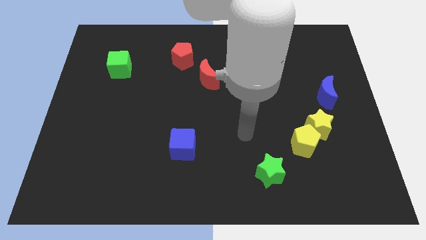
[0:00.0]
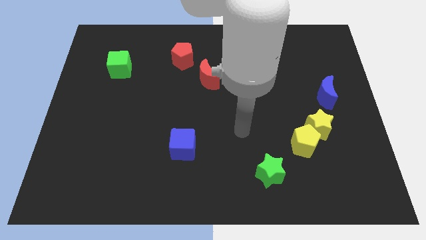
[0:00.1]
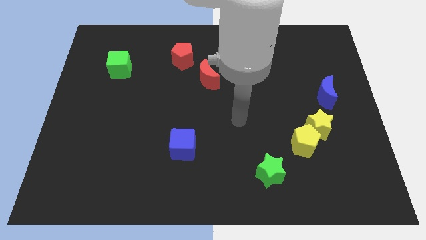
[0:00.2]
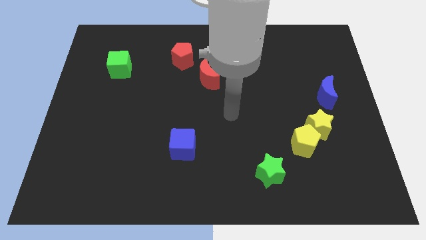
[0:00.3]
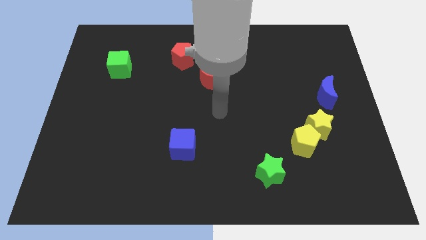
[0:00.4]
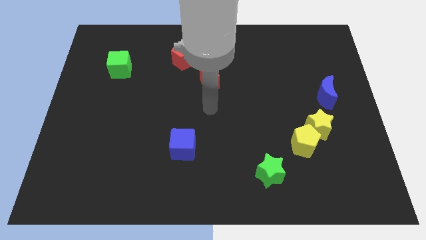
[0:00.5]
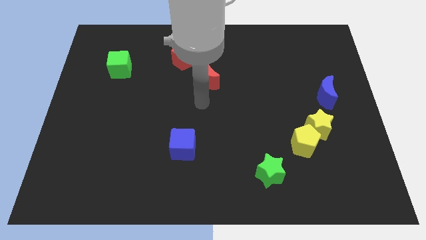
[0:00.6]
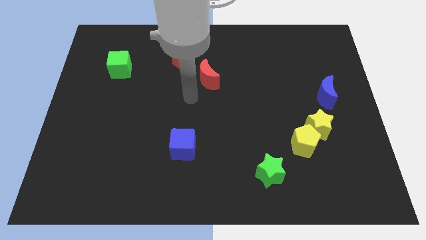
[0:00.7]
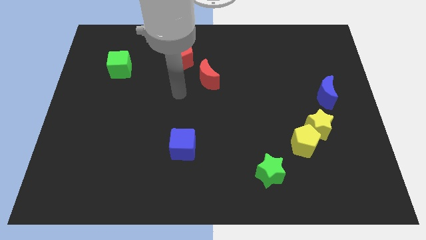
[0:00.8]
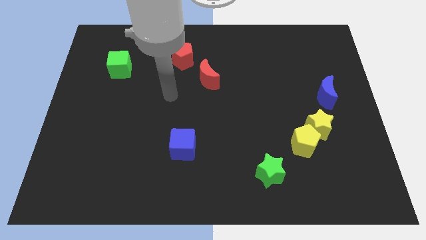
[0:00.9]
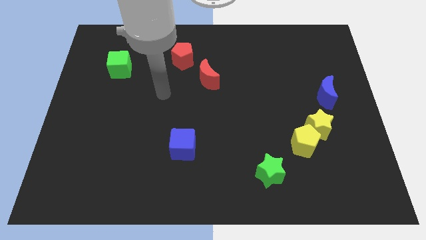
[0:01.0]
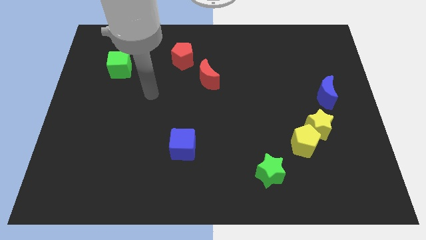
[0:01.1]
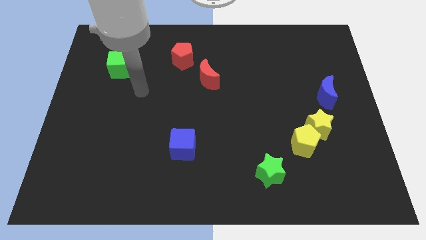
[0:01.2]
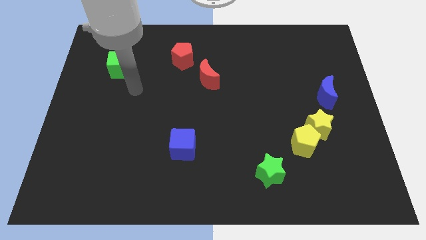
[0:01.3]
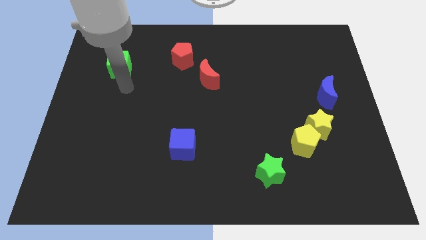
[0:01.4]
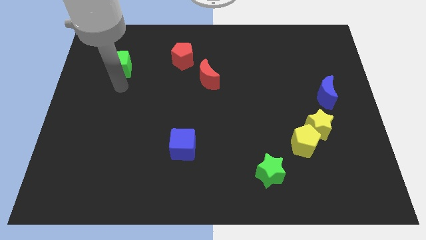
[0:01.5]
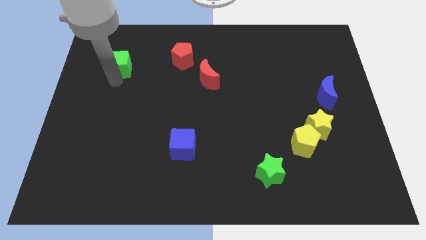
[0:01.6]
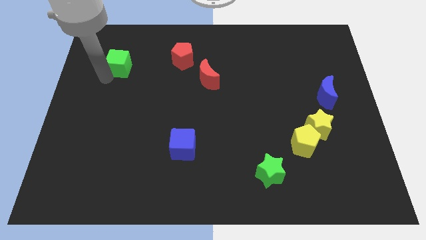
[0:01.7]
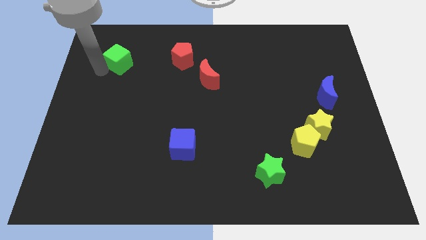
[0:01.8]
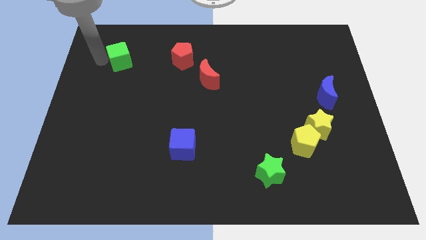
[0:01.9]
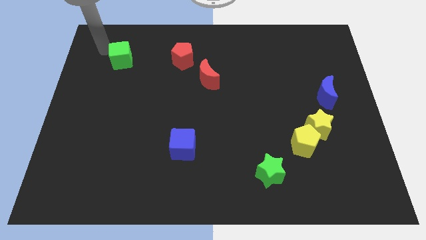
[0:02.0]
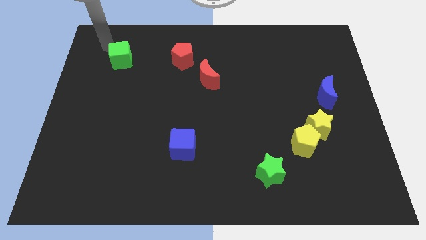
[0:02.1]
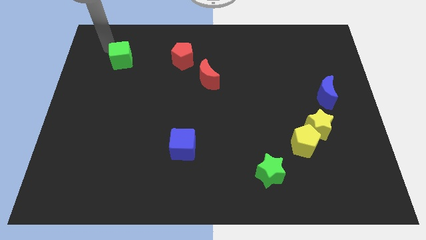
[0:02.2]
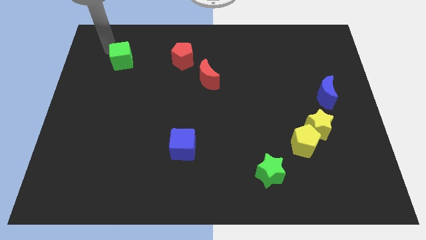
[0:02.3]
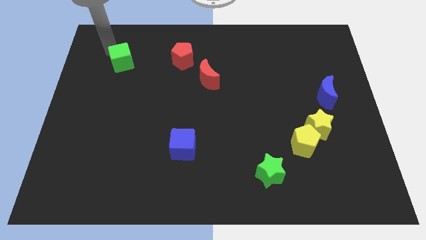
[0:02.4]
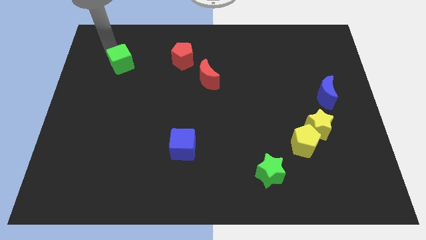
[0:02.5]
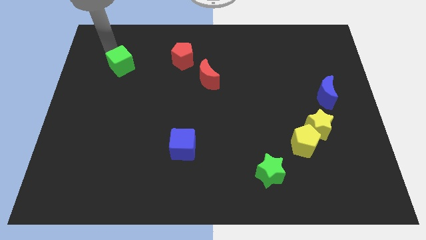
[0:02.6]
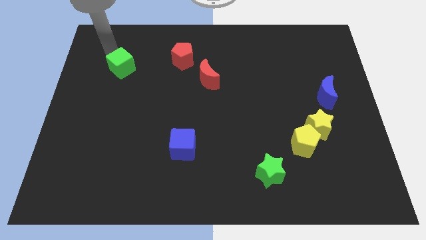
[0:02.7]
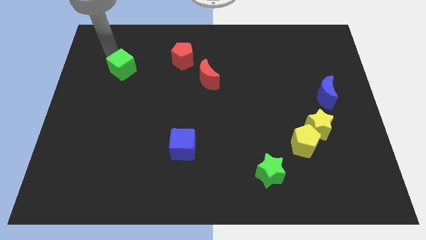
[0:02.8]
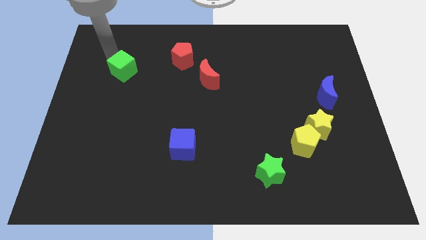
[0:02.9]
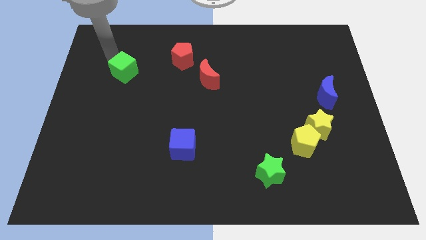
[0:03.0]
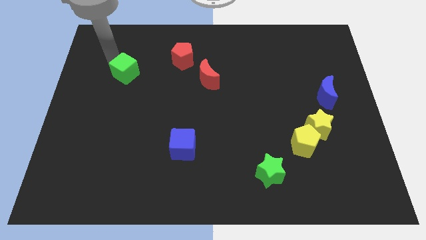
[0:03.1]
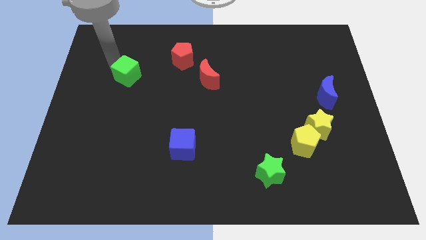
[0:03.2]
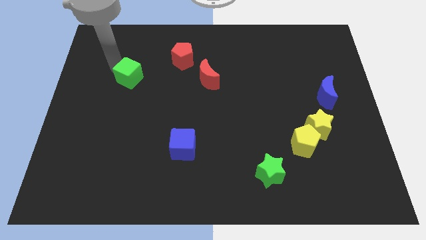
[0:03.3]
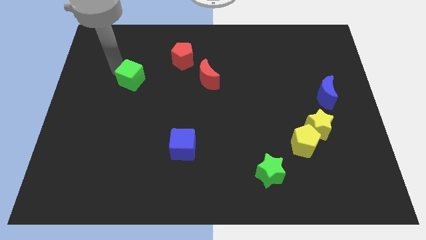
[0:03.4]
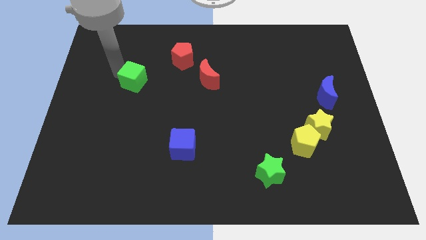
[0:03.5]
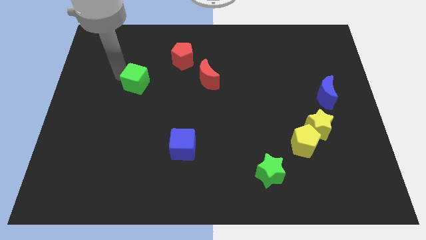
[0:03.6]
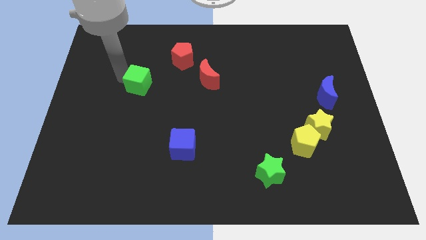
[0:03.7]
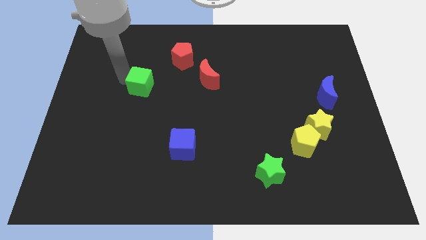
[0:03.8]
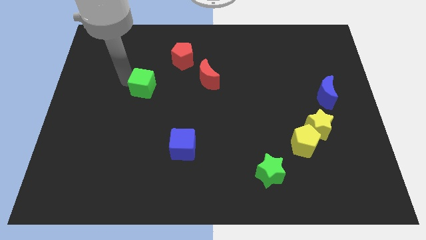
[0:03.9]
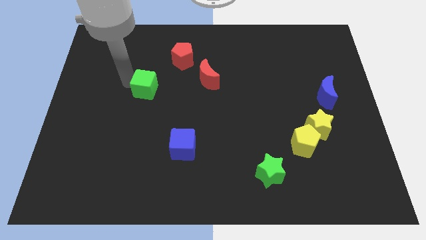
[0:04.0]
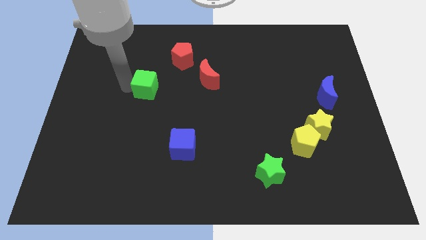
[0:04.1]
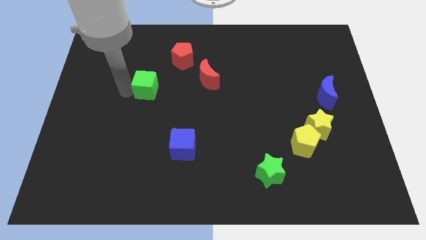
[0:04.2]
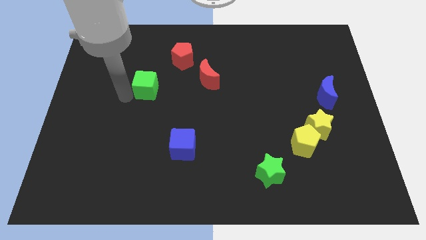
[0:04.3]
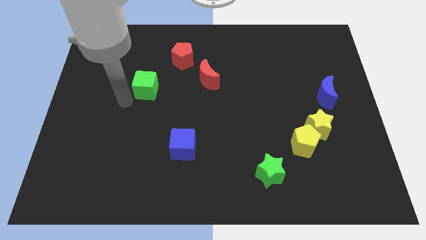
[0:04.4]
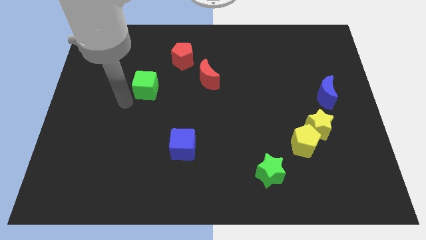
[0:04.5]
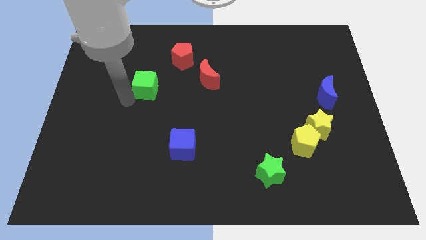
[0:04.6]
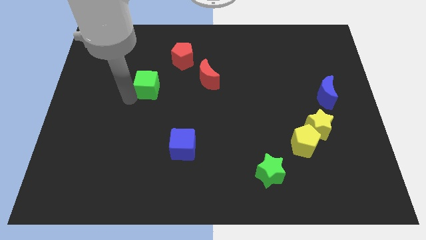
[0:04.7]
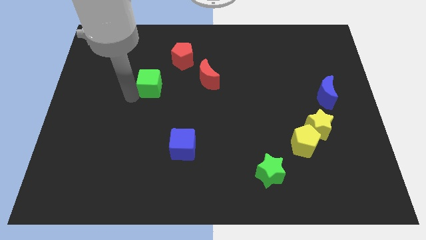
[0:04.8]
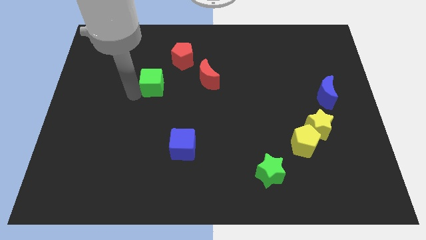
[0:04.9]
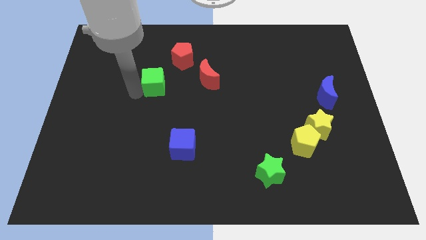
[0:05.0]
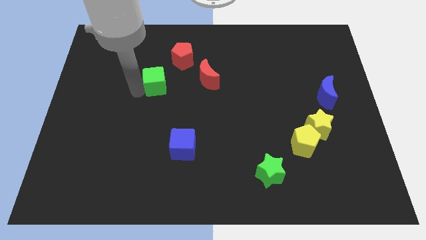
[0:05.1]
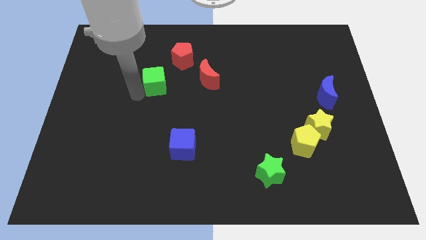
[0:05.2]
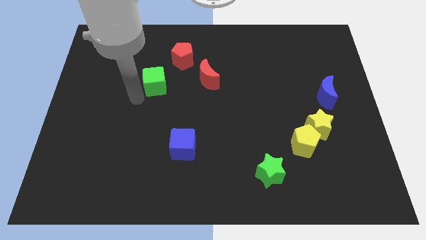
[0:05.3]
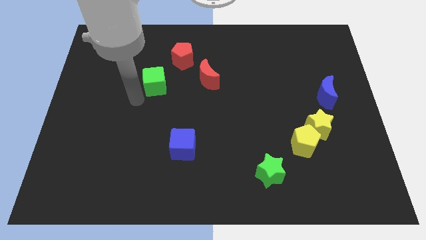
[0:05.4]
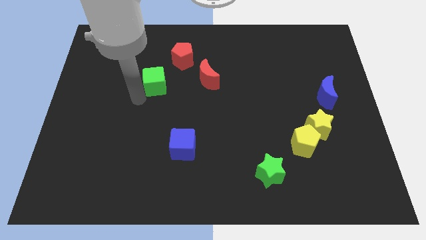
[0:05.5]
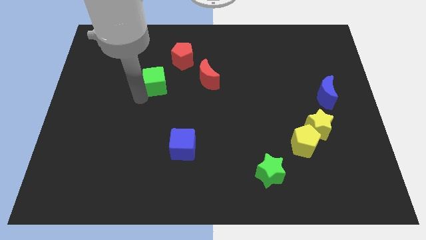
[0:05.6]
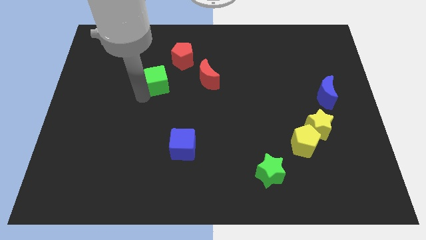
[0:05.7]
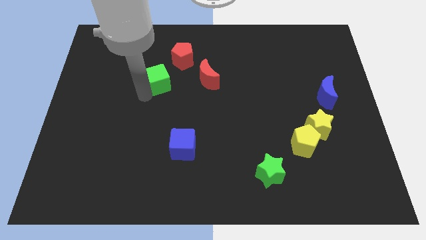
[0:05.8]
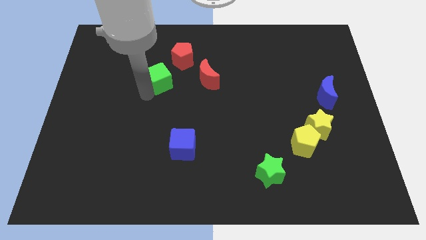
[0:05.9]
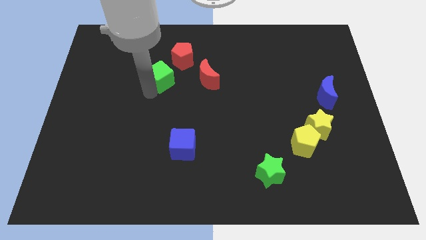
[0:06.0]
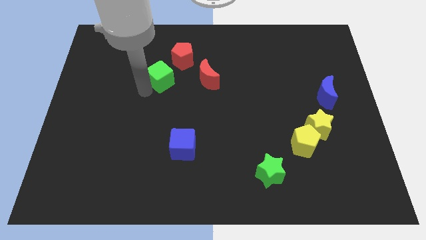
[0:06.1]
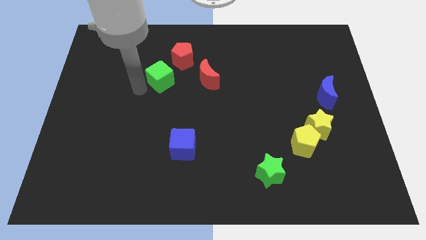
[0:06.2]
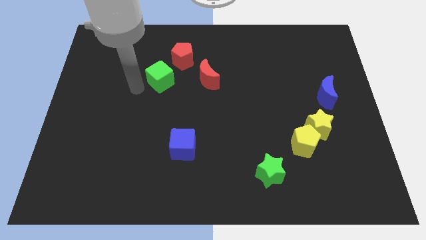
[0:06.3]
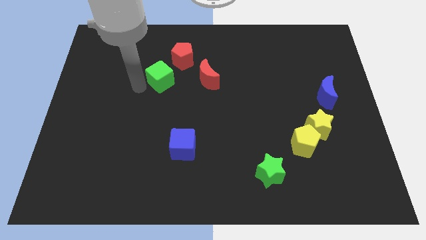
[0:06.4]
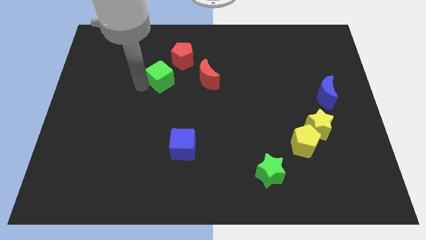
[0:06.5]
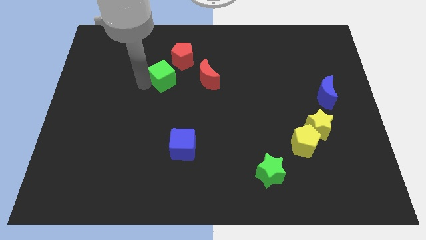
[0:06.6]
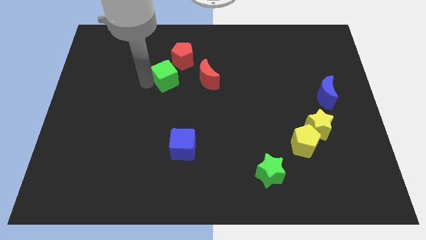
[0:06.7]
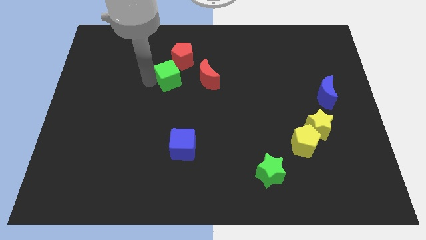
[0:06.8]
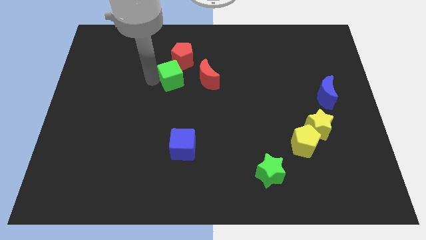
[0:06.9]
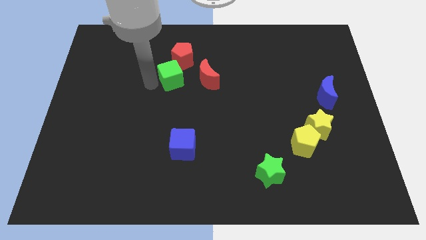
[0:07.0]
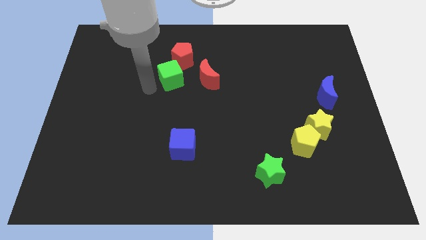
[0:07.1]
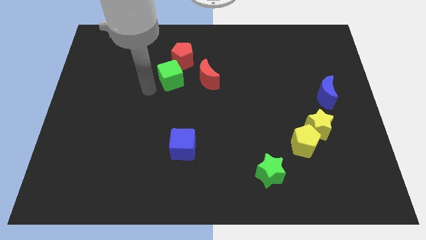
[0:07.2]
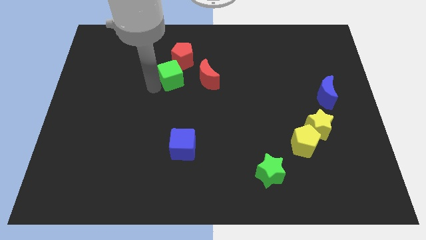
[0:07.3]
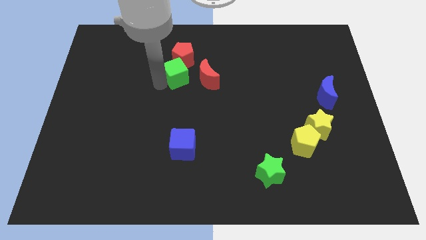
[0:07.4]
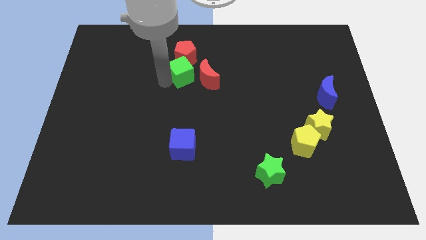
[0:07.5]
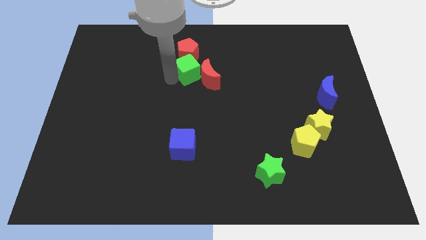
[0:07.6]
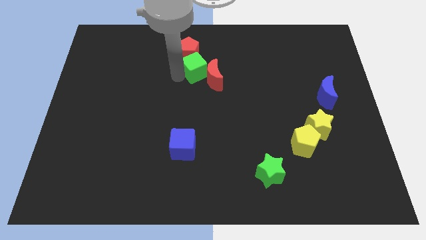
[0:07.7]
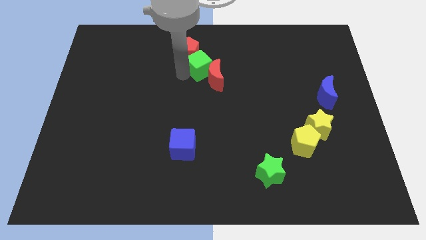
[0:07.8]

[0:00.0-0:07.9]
push the green cube right
